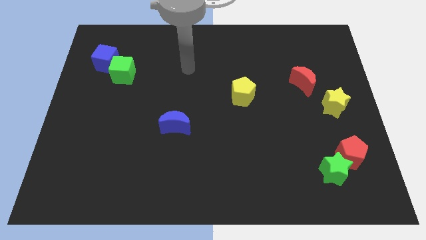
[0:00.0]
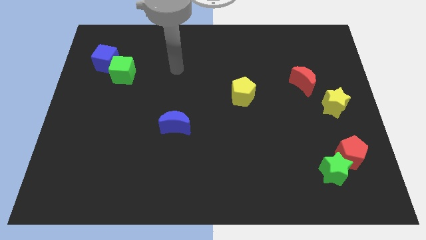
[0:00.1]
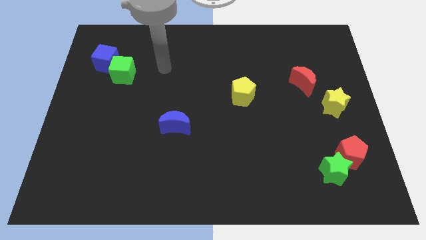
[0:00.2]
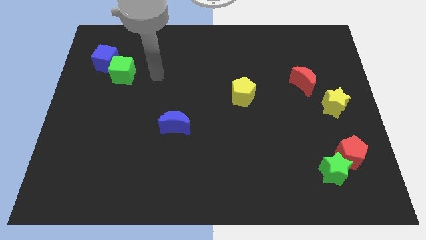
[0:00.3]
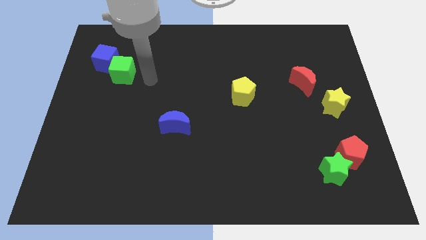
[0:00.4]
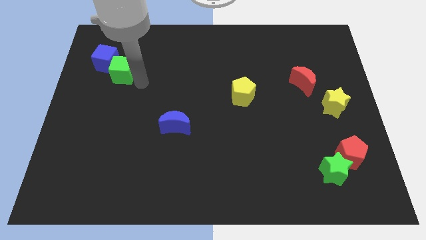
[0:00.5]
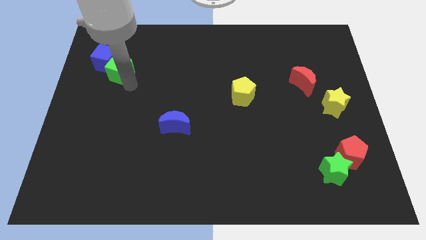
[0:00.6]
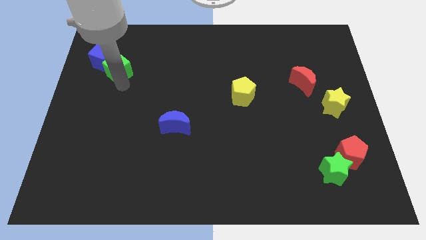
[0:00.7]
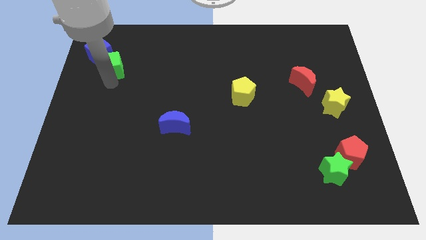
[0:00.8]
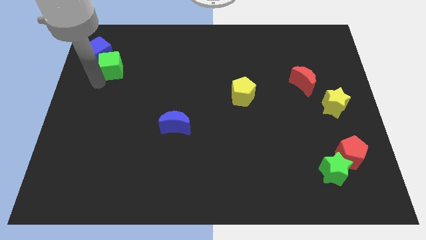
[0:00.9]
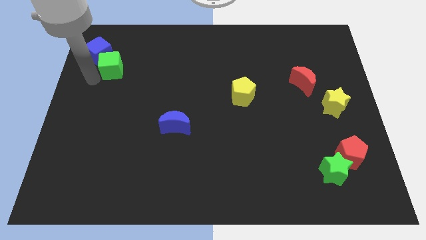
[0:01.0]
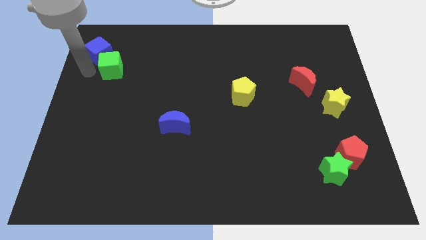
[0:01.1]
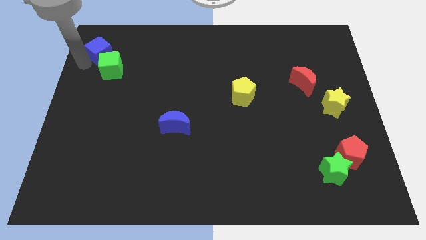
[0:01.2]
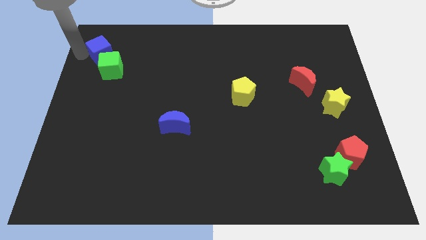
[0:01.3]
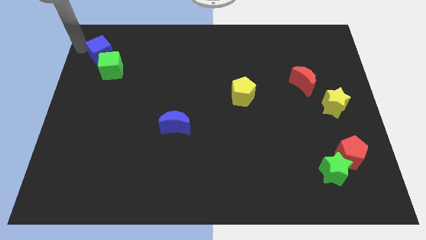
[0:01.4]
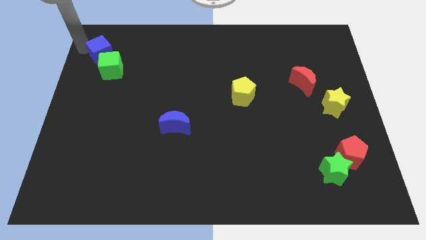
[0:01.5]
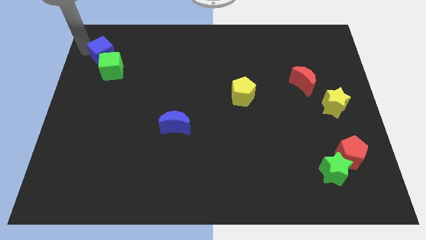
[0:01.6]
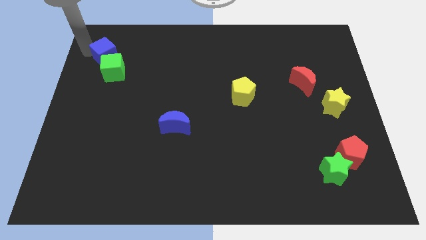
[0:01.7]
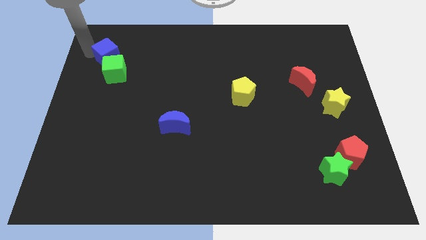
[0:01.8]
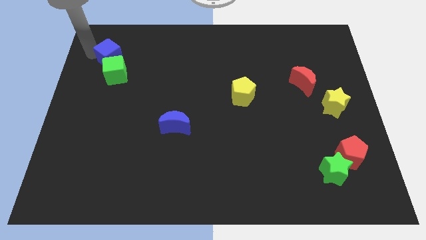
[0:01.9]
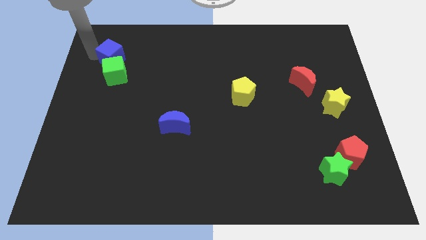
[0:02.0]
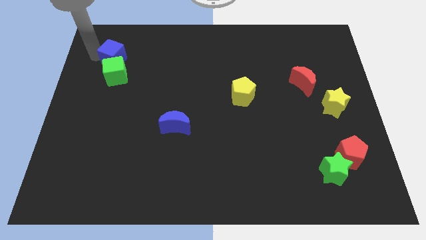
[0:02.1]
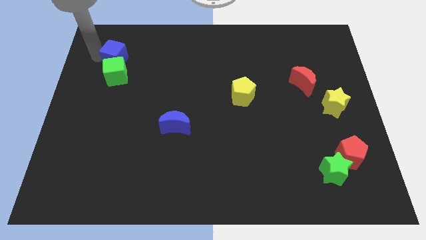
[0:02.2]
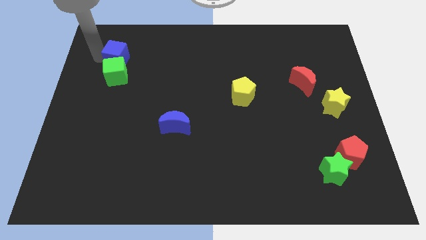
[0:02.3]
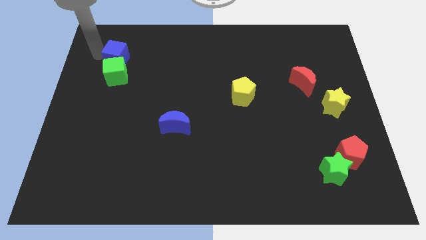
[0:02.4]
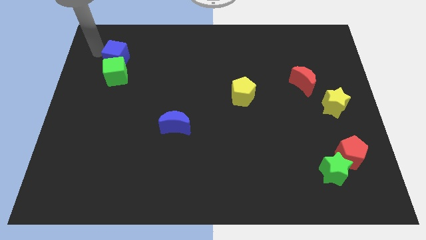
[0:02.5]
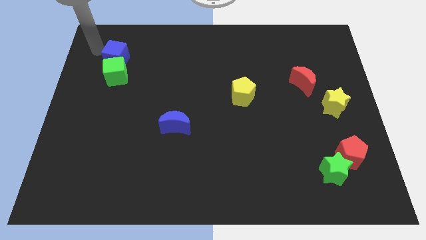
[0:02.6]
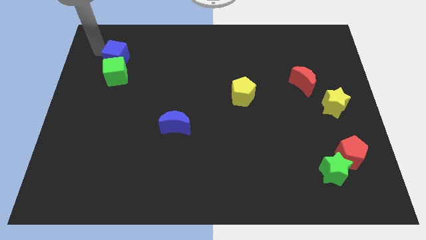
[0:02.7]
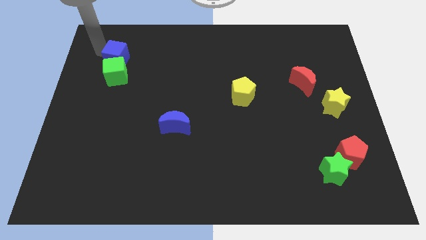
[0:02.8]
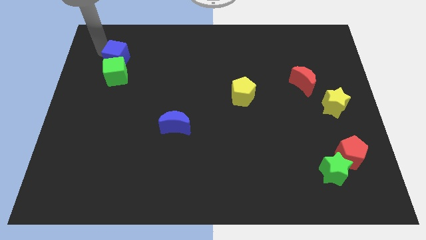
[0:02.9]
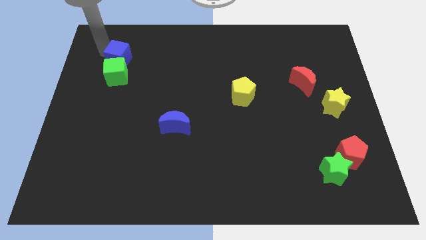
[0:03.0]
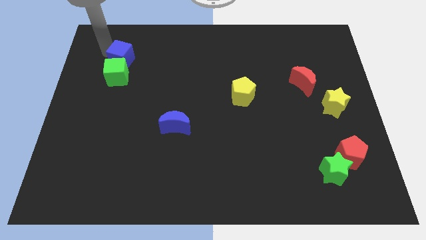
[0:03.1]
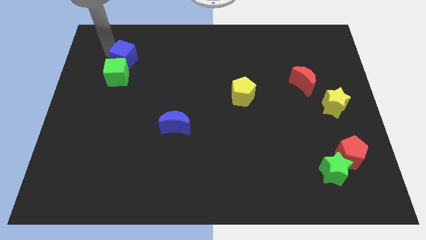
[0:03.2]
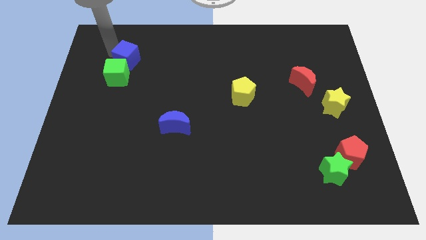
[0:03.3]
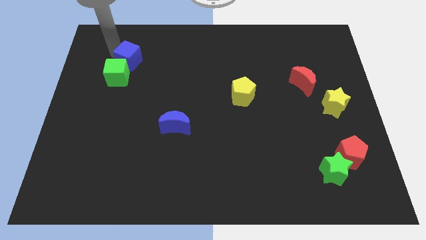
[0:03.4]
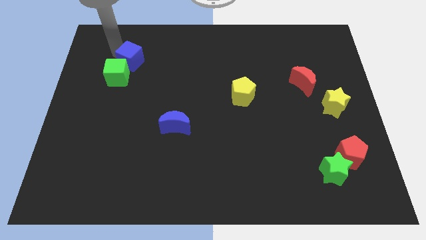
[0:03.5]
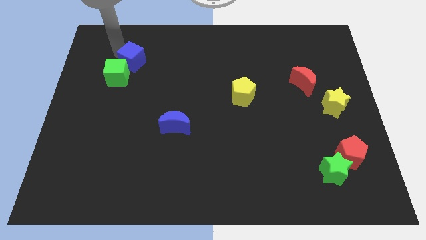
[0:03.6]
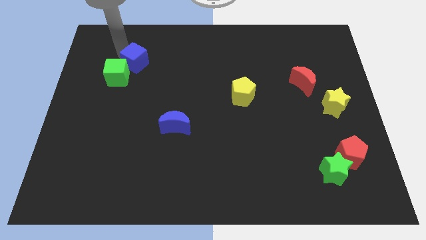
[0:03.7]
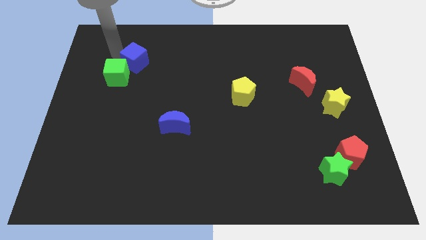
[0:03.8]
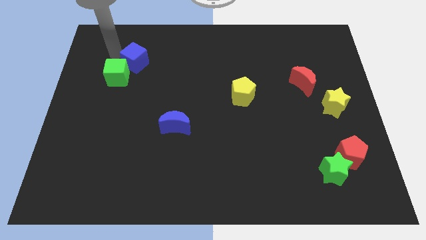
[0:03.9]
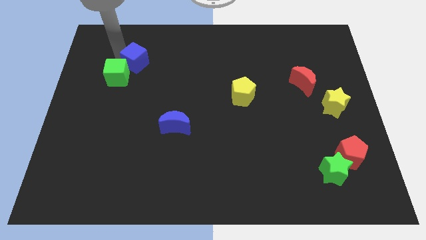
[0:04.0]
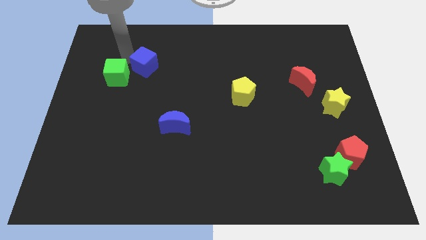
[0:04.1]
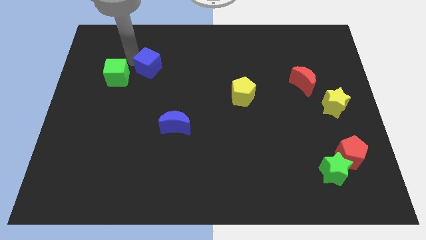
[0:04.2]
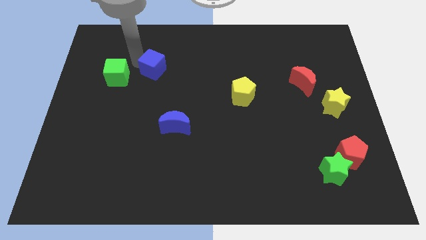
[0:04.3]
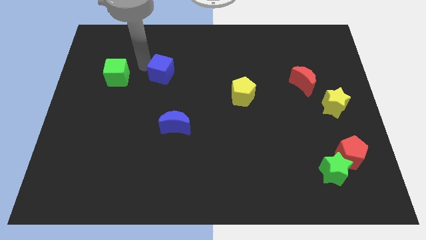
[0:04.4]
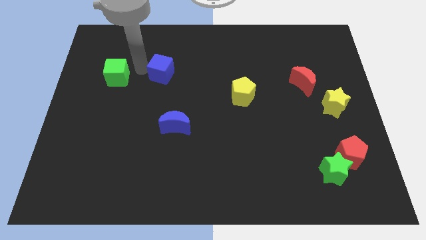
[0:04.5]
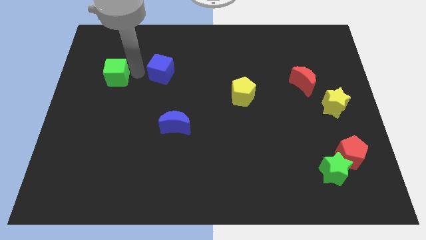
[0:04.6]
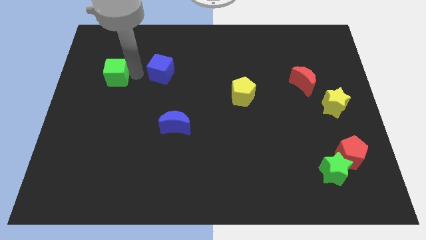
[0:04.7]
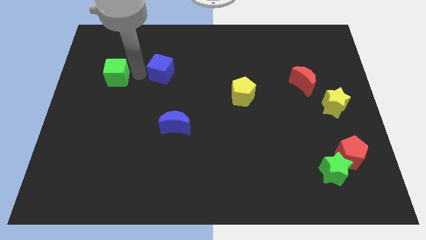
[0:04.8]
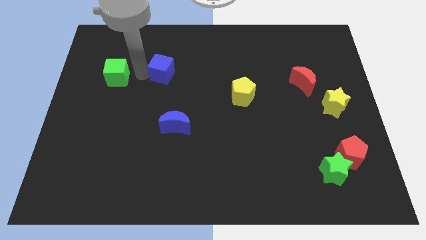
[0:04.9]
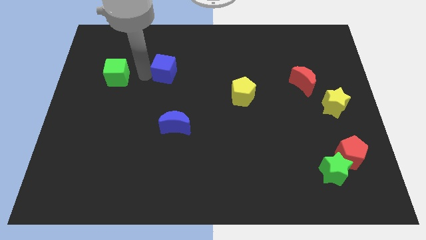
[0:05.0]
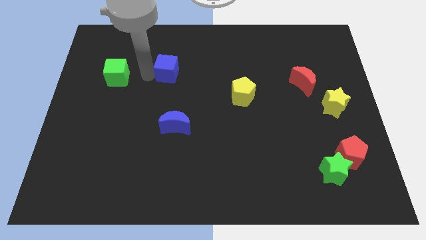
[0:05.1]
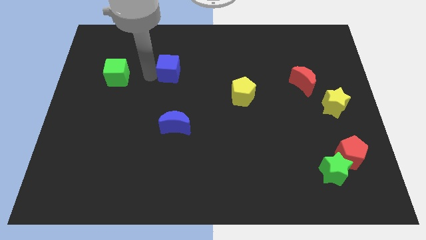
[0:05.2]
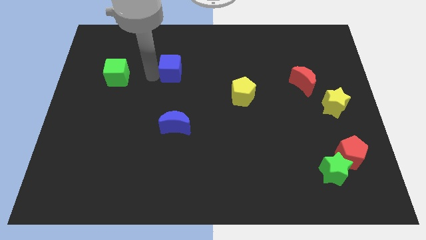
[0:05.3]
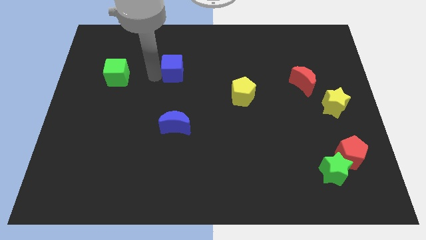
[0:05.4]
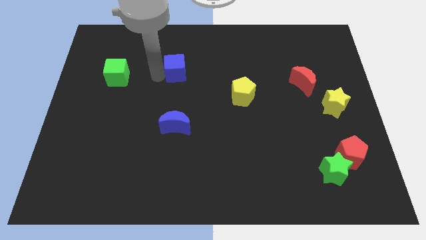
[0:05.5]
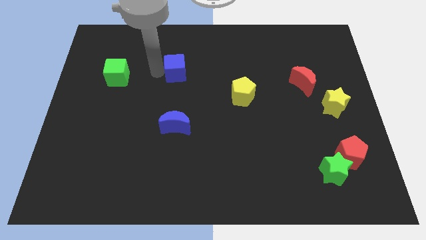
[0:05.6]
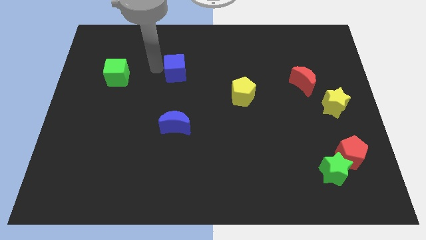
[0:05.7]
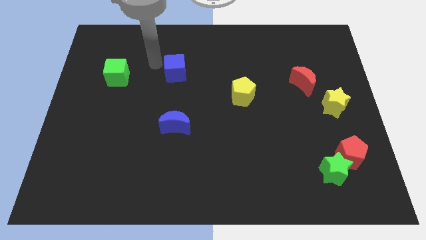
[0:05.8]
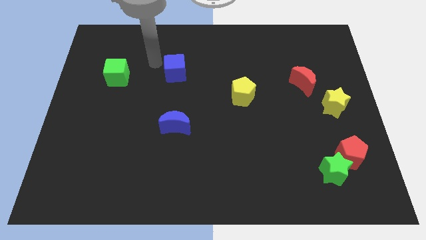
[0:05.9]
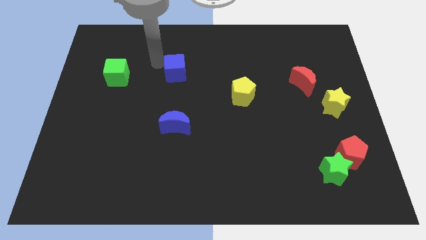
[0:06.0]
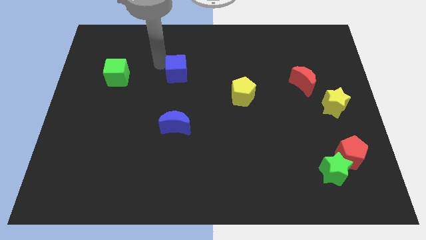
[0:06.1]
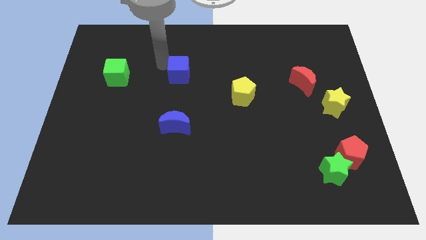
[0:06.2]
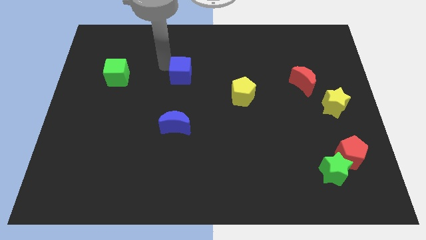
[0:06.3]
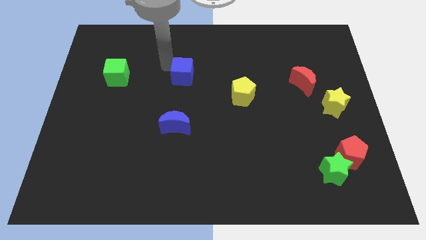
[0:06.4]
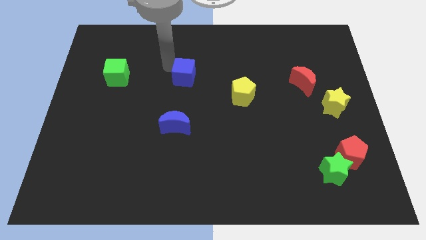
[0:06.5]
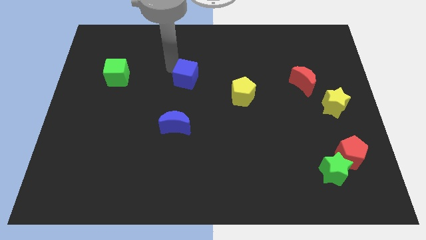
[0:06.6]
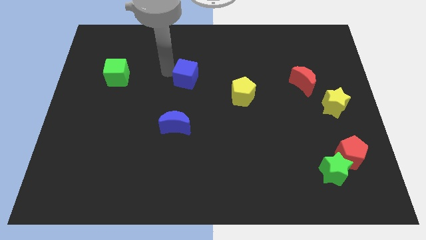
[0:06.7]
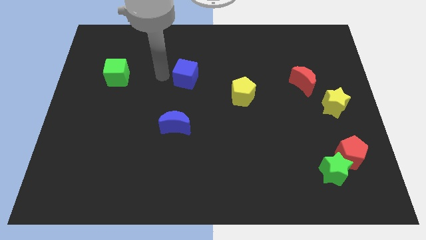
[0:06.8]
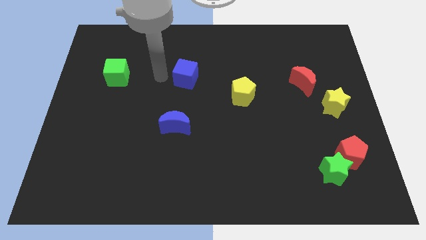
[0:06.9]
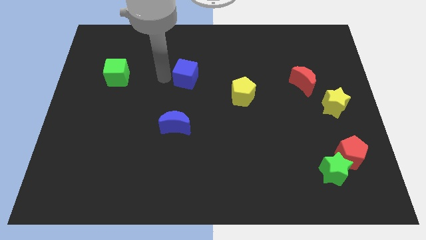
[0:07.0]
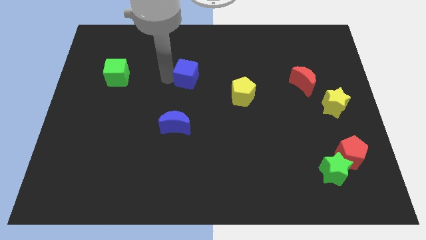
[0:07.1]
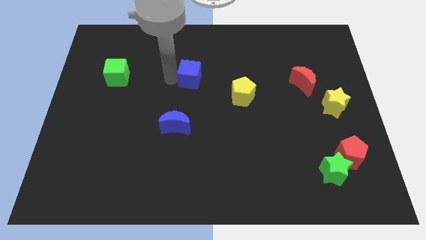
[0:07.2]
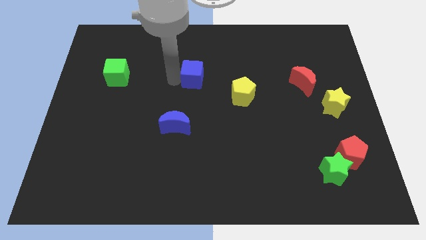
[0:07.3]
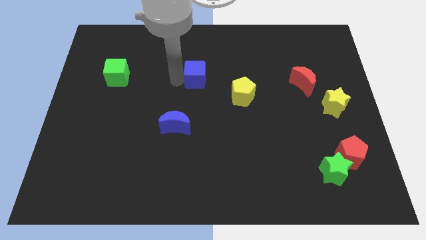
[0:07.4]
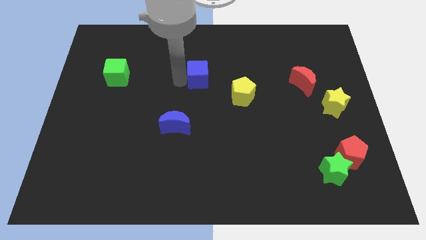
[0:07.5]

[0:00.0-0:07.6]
move the blue cube to the top left of the yellow pentagon

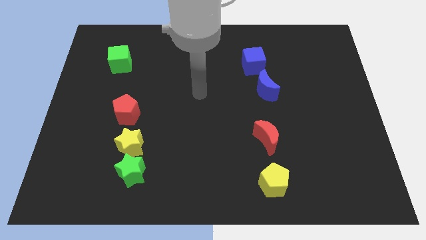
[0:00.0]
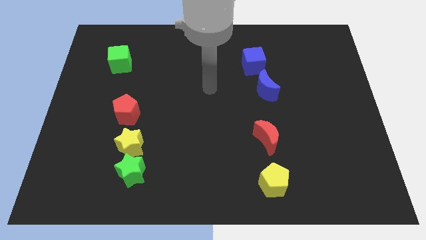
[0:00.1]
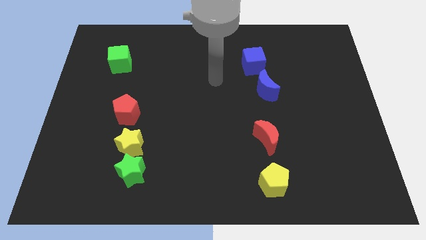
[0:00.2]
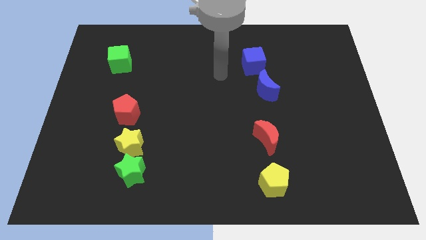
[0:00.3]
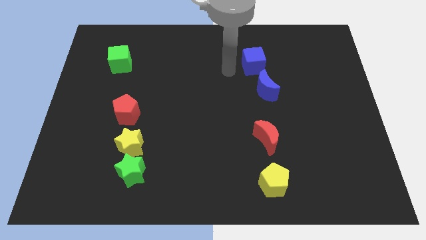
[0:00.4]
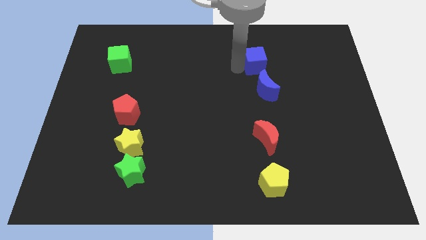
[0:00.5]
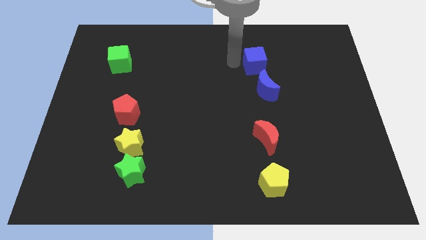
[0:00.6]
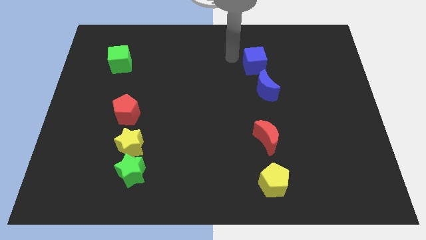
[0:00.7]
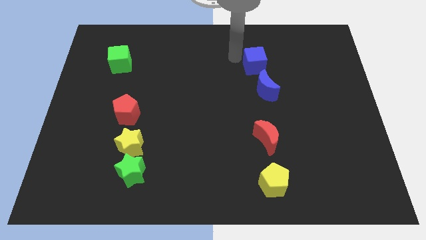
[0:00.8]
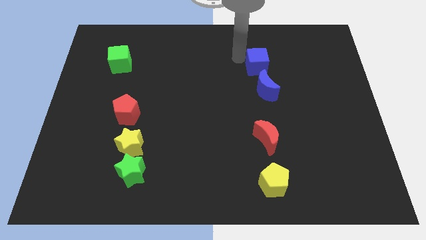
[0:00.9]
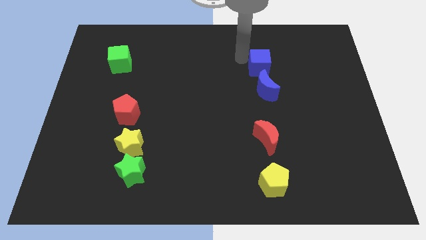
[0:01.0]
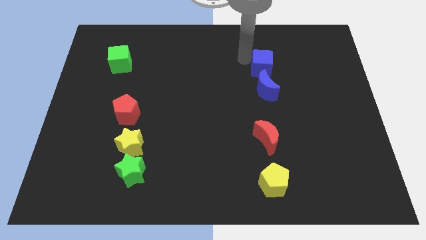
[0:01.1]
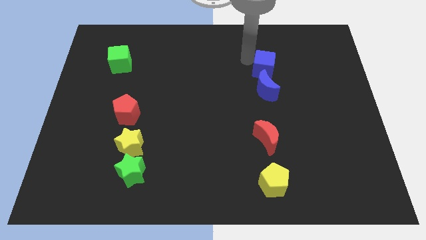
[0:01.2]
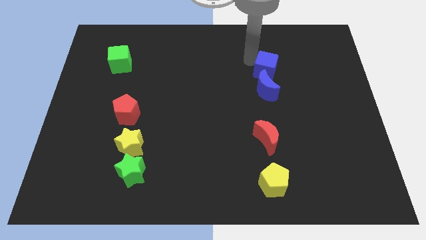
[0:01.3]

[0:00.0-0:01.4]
slide the blue cube to the top right side of the blue moon
